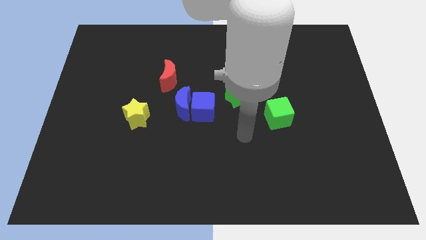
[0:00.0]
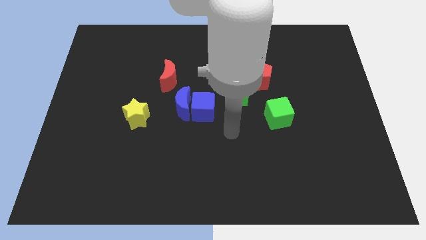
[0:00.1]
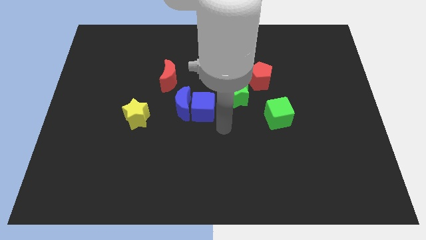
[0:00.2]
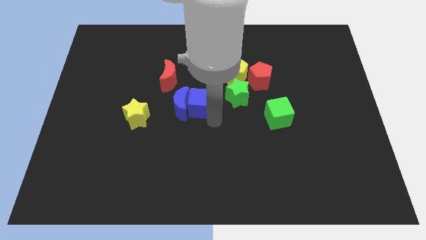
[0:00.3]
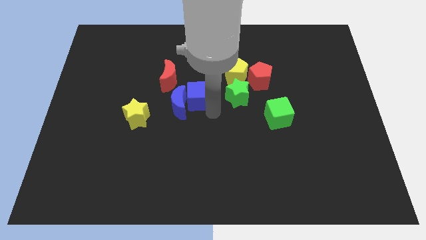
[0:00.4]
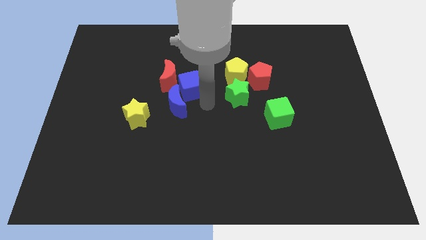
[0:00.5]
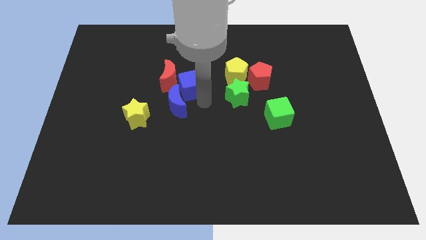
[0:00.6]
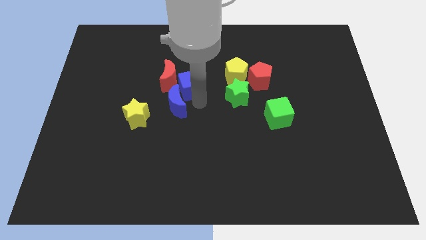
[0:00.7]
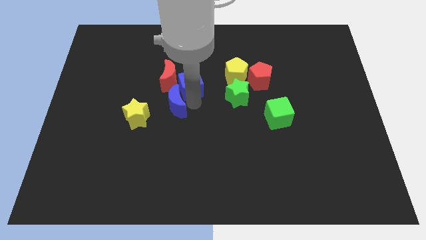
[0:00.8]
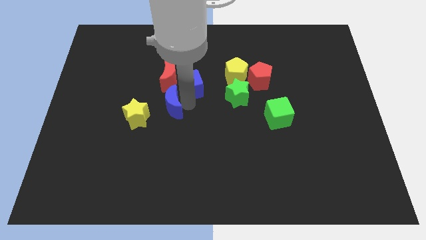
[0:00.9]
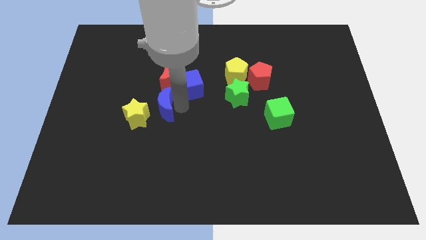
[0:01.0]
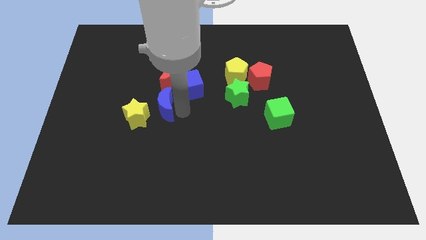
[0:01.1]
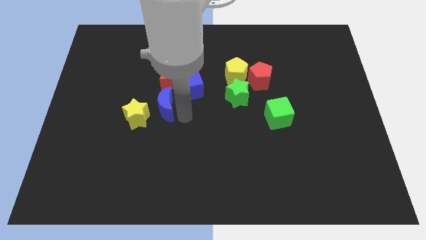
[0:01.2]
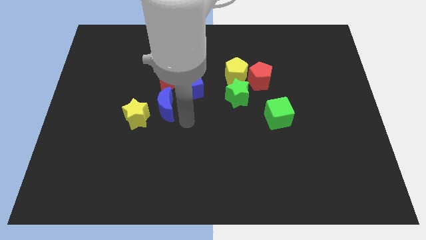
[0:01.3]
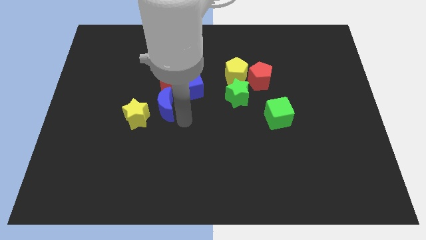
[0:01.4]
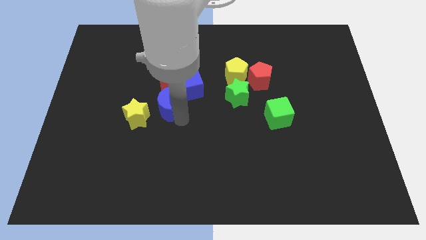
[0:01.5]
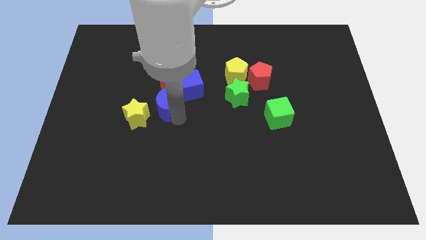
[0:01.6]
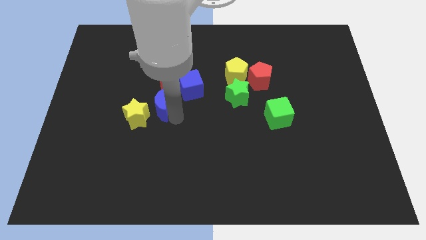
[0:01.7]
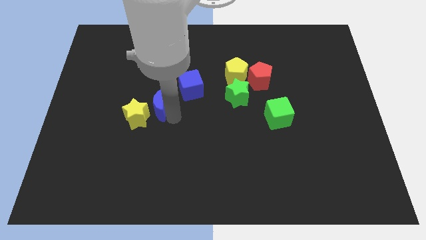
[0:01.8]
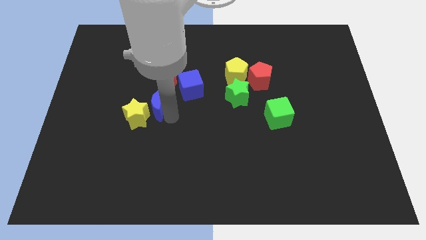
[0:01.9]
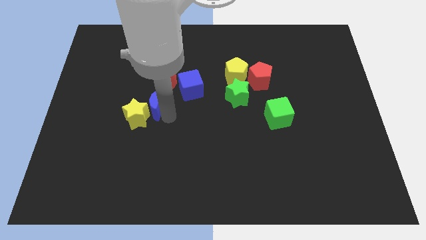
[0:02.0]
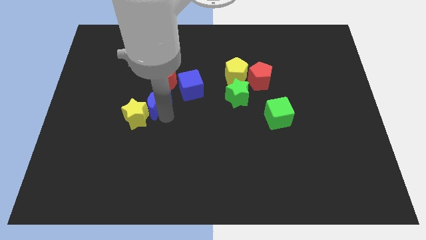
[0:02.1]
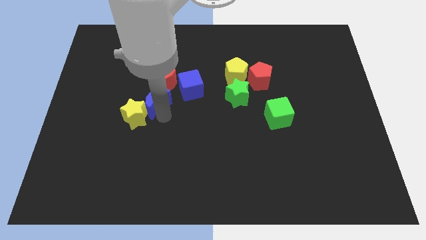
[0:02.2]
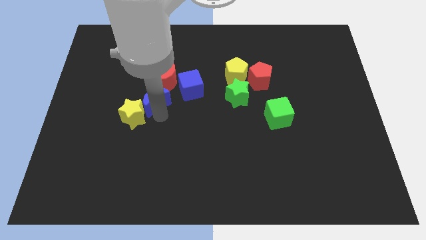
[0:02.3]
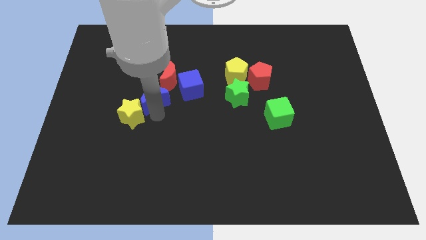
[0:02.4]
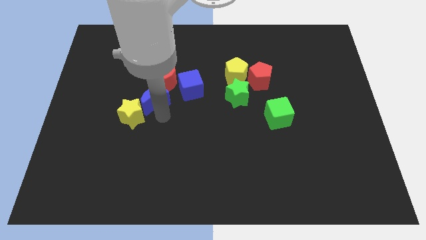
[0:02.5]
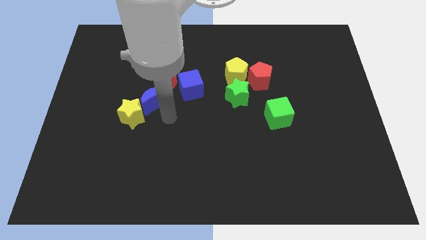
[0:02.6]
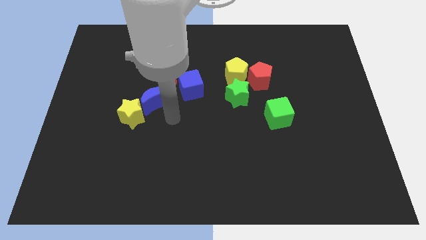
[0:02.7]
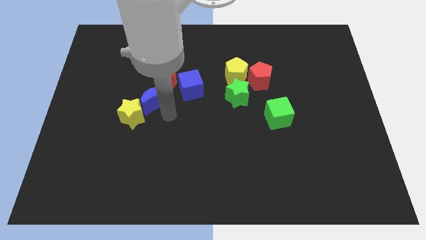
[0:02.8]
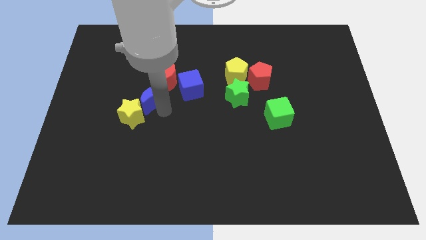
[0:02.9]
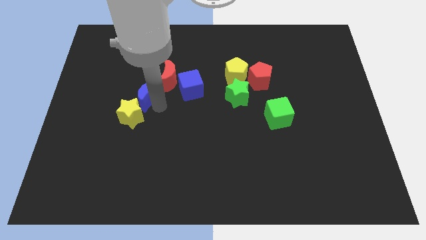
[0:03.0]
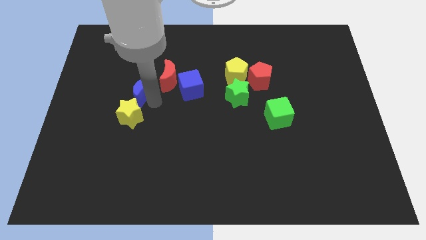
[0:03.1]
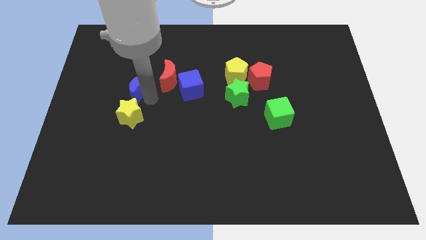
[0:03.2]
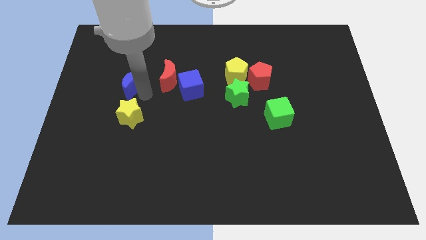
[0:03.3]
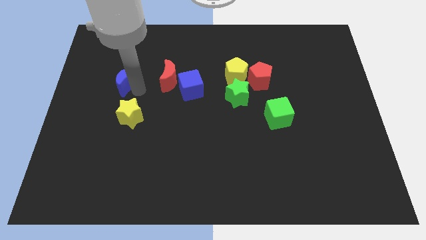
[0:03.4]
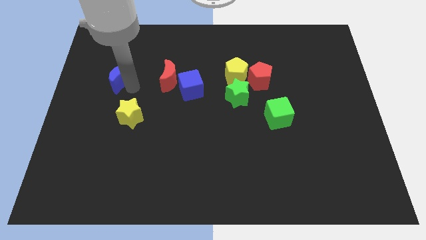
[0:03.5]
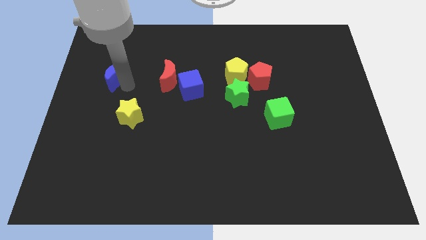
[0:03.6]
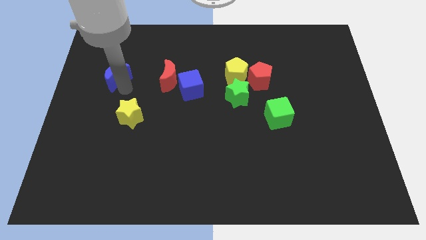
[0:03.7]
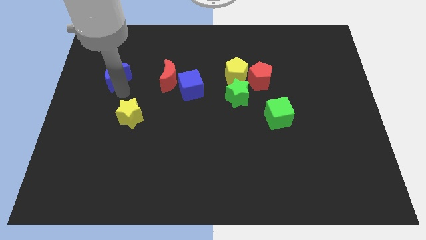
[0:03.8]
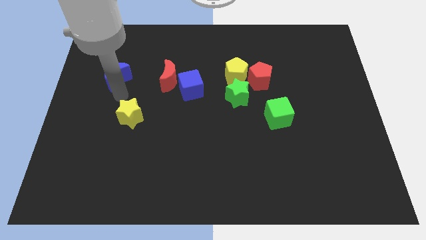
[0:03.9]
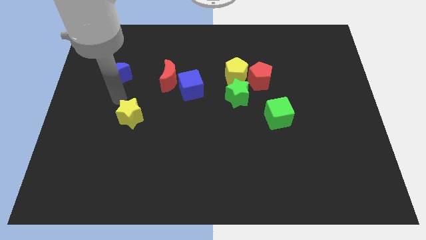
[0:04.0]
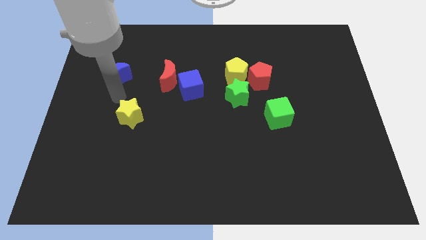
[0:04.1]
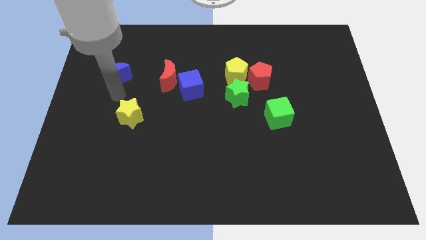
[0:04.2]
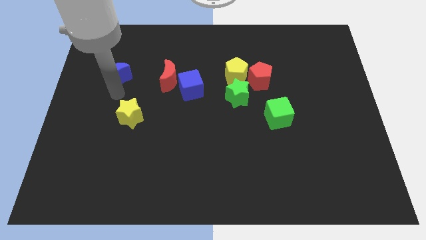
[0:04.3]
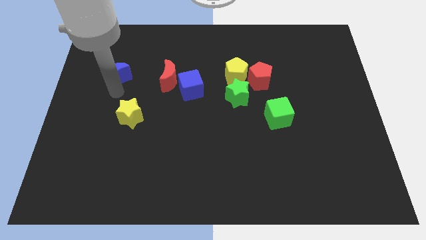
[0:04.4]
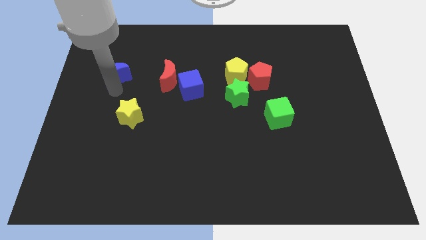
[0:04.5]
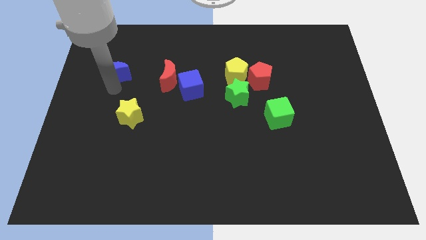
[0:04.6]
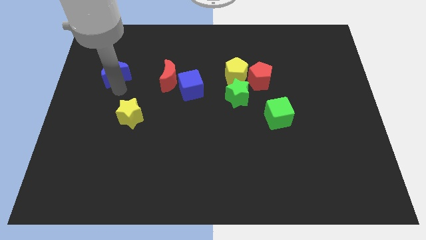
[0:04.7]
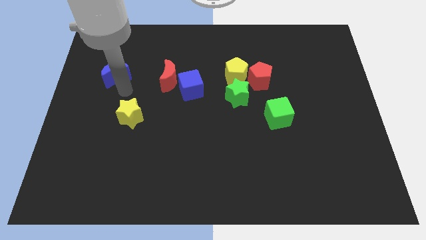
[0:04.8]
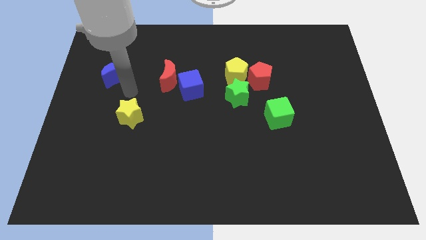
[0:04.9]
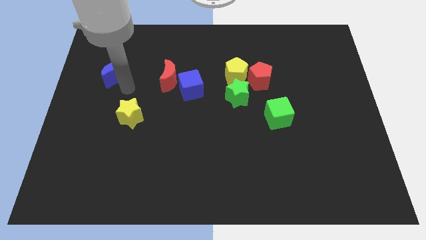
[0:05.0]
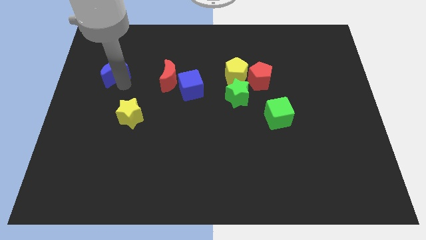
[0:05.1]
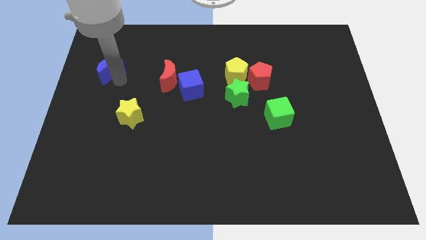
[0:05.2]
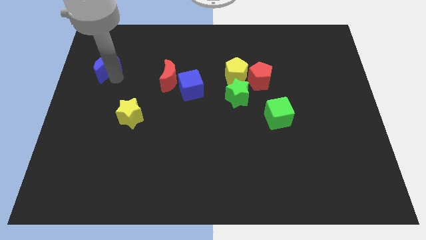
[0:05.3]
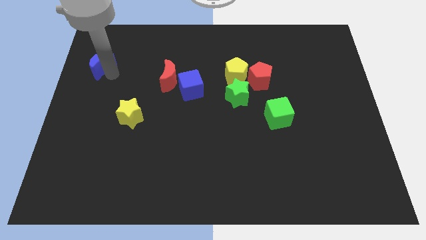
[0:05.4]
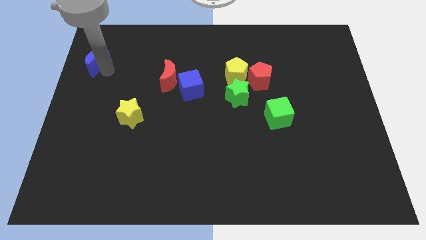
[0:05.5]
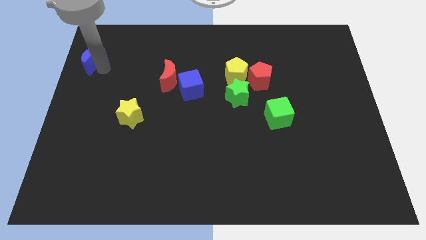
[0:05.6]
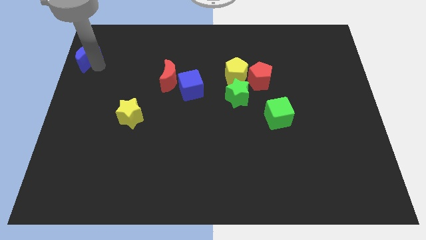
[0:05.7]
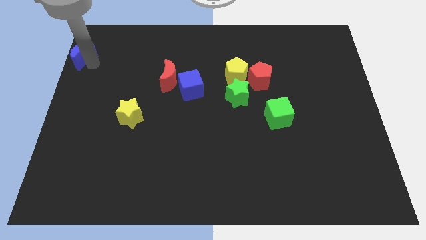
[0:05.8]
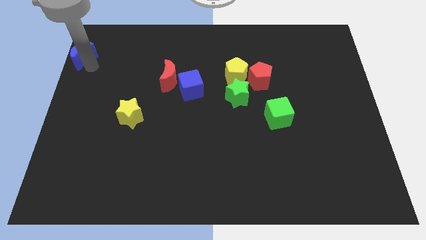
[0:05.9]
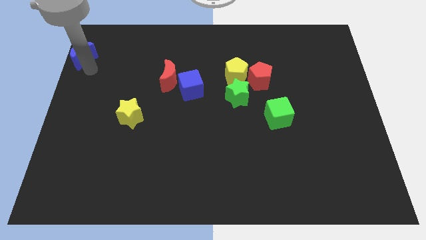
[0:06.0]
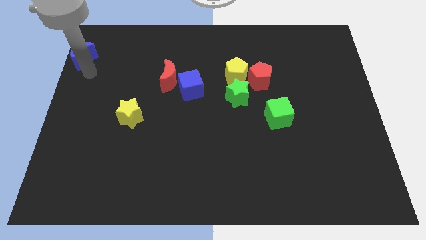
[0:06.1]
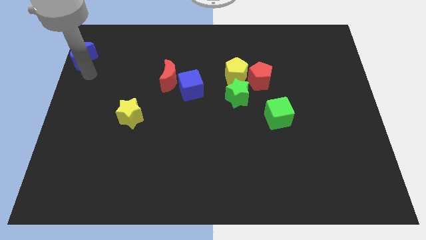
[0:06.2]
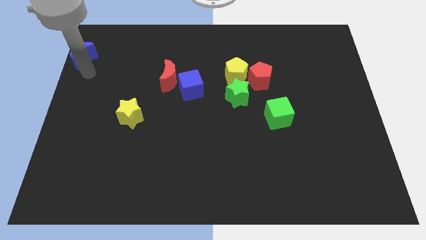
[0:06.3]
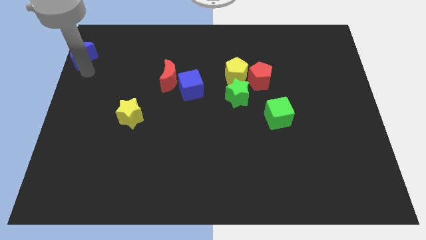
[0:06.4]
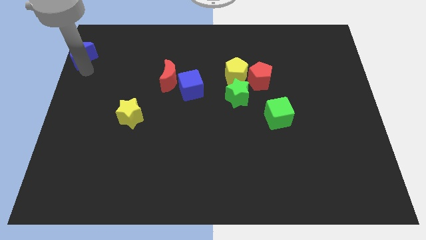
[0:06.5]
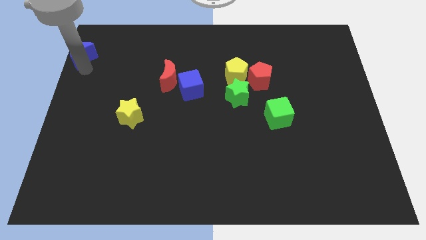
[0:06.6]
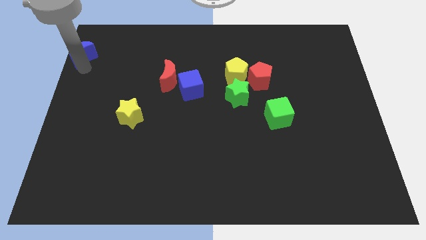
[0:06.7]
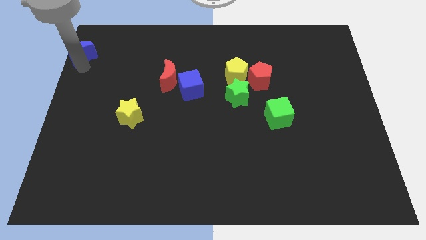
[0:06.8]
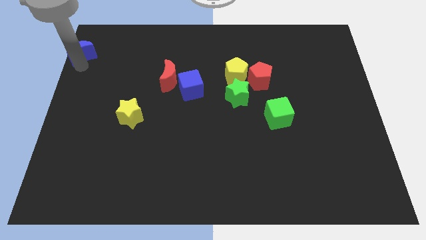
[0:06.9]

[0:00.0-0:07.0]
put the blue moon to the top left corner
